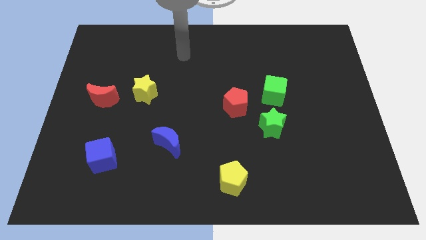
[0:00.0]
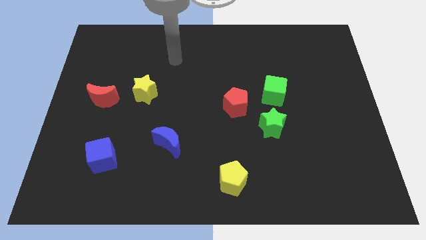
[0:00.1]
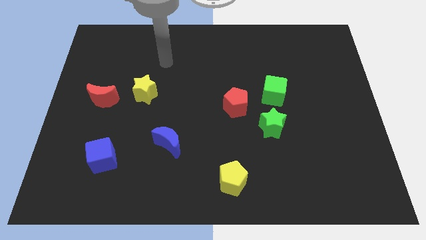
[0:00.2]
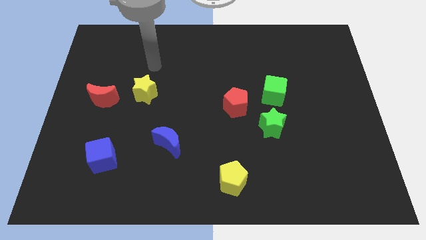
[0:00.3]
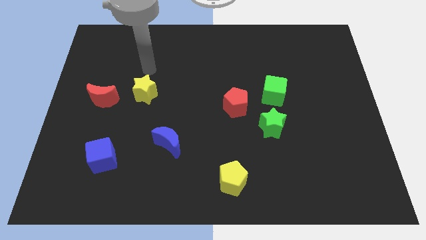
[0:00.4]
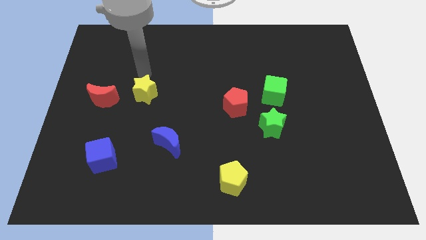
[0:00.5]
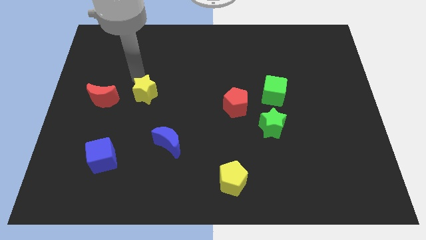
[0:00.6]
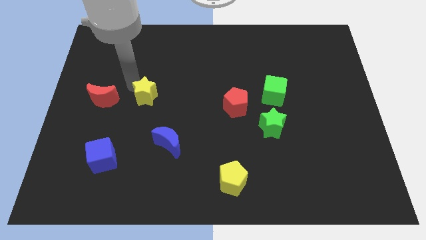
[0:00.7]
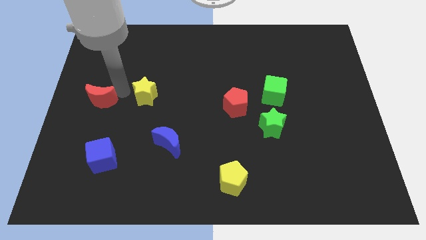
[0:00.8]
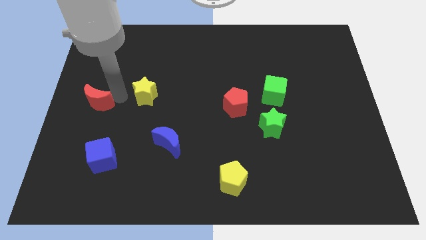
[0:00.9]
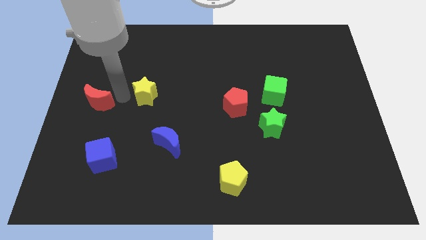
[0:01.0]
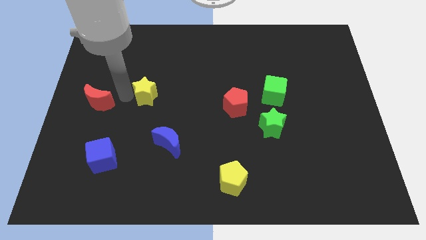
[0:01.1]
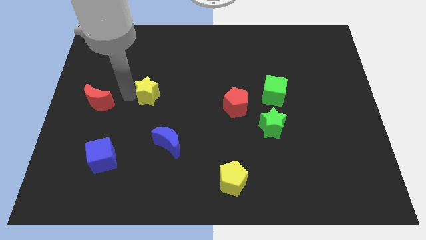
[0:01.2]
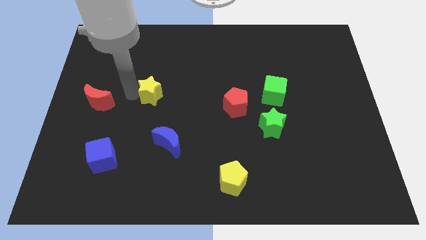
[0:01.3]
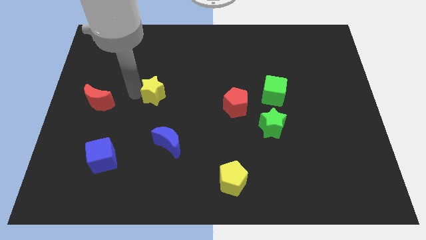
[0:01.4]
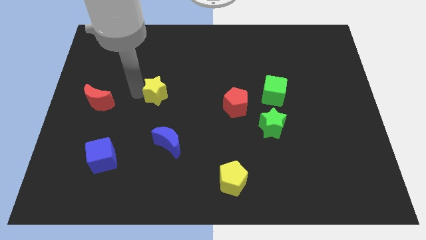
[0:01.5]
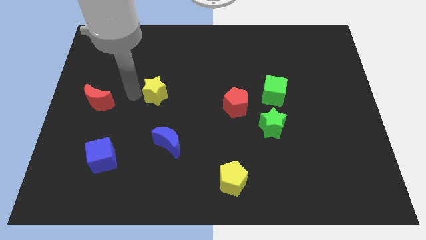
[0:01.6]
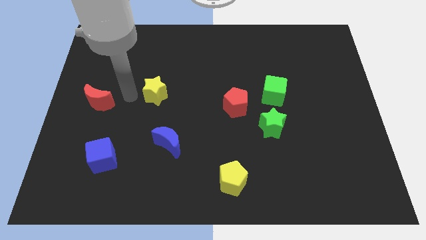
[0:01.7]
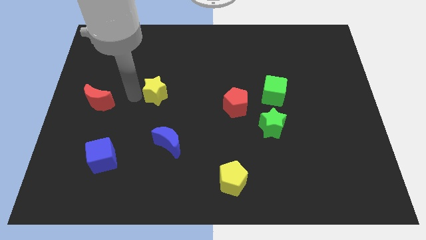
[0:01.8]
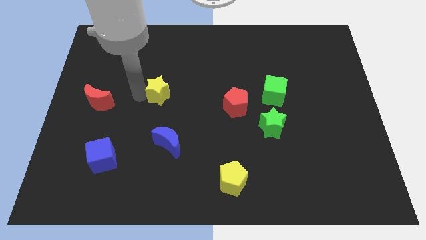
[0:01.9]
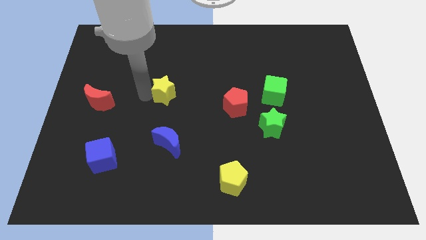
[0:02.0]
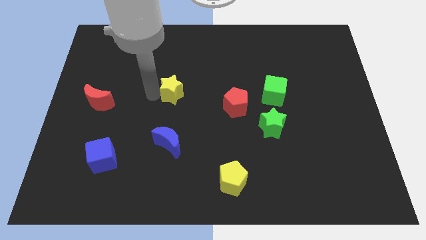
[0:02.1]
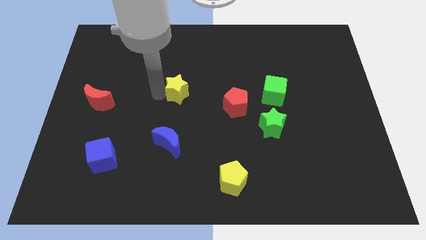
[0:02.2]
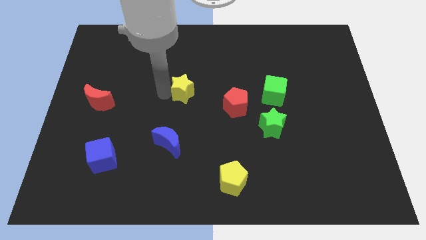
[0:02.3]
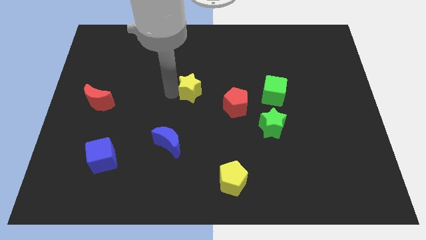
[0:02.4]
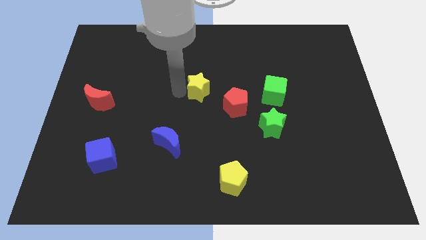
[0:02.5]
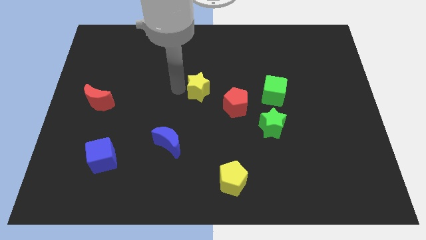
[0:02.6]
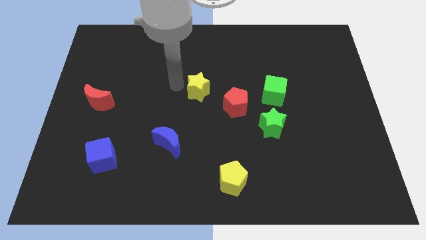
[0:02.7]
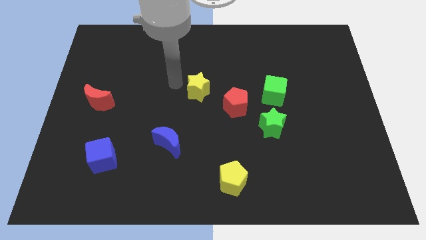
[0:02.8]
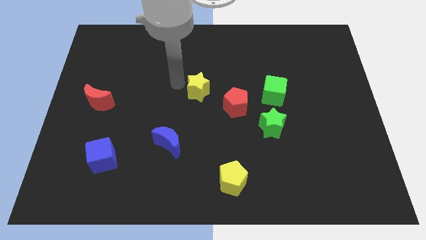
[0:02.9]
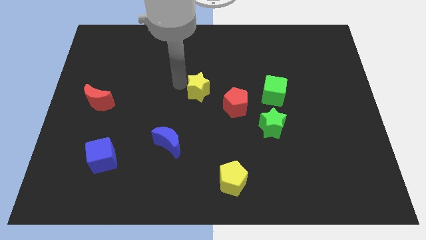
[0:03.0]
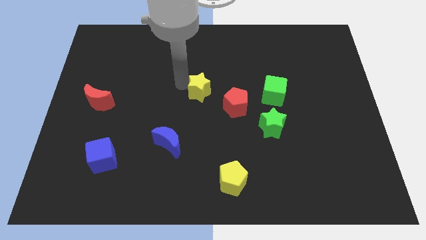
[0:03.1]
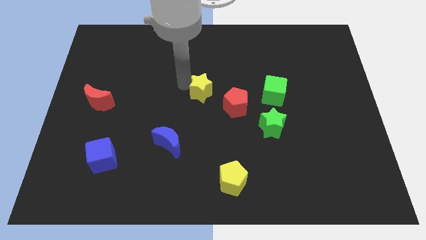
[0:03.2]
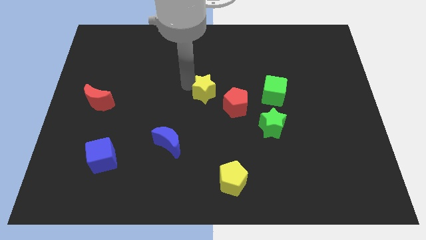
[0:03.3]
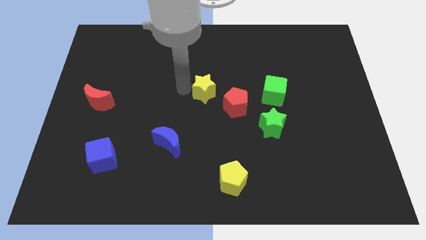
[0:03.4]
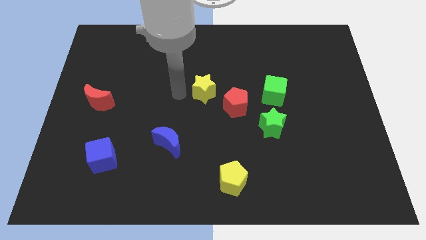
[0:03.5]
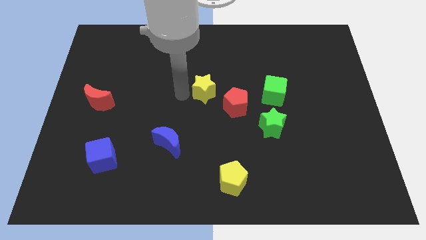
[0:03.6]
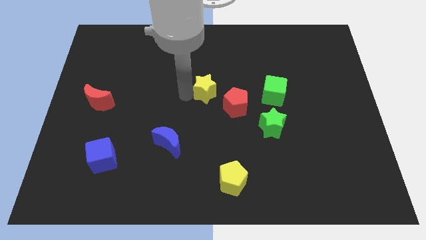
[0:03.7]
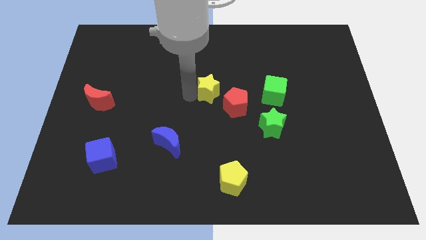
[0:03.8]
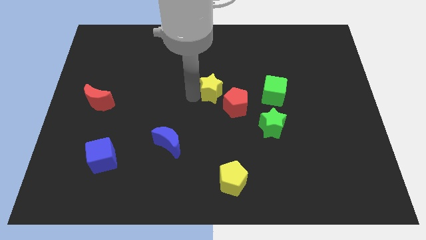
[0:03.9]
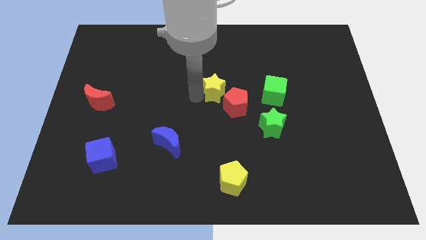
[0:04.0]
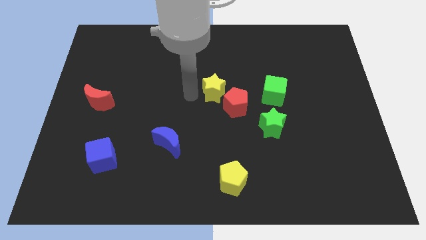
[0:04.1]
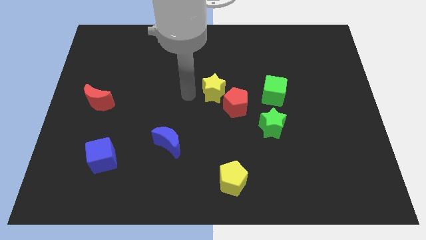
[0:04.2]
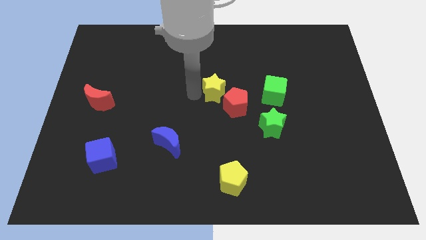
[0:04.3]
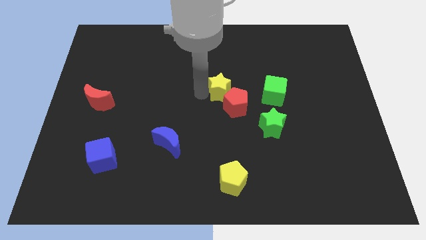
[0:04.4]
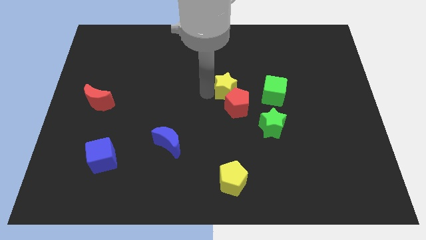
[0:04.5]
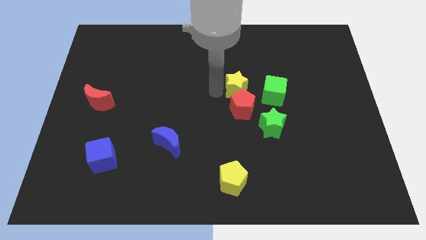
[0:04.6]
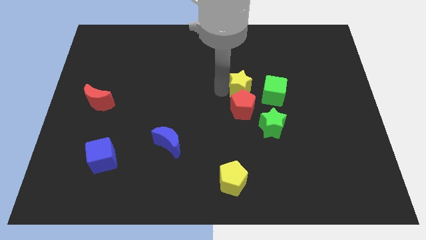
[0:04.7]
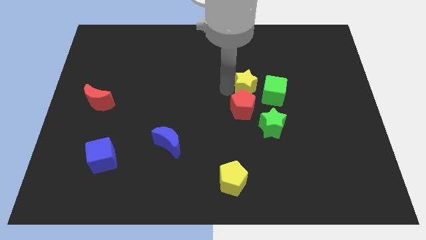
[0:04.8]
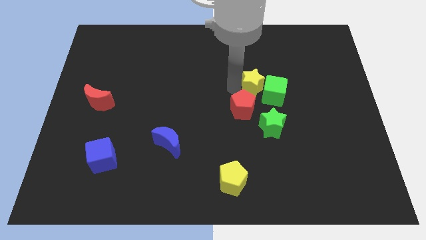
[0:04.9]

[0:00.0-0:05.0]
push the yellow star towards the green cube

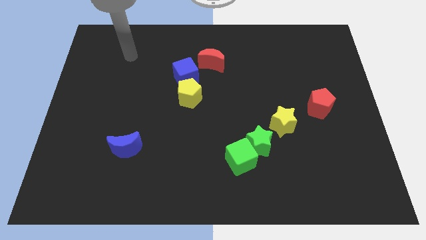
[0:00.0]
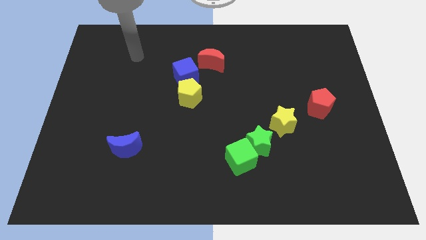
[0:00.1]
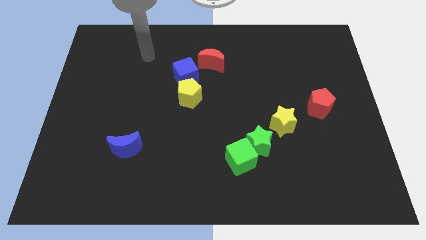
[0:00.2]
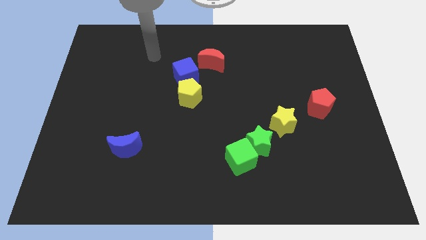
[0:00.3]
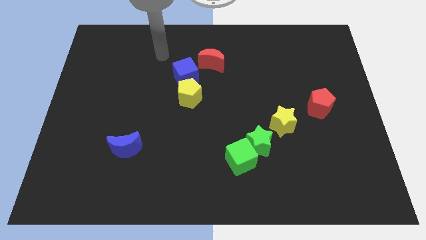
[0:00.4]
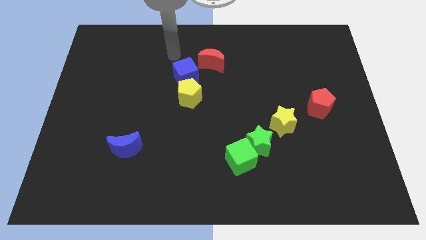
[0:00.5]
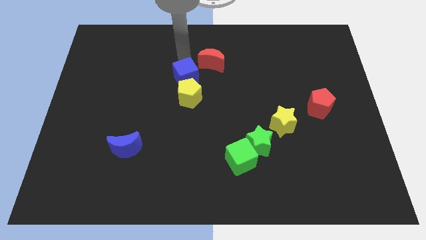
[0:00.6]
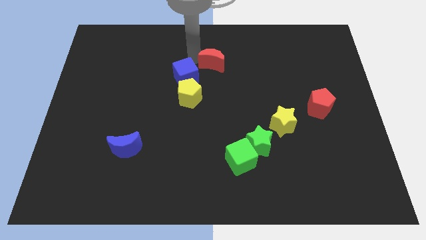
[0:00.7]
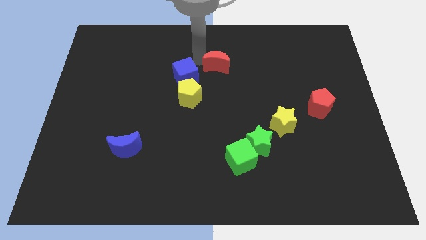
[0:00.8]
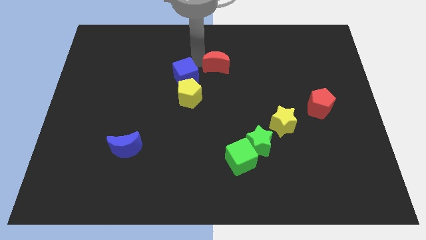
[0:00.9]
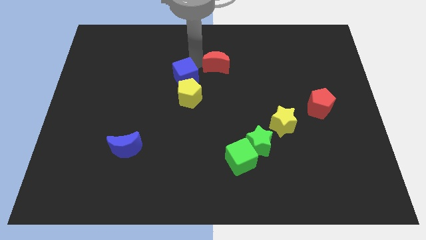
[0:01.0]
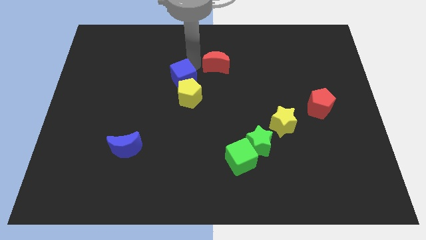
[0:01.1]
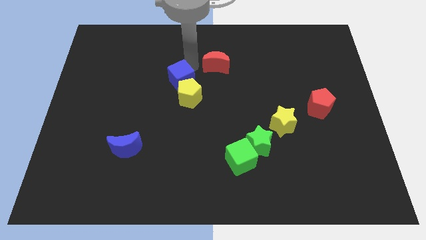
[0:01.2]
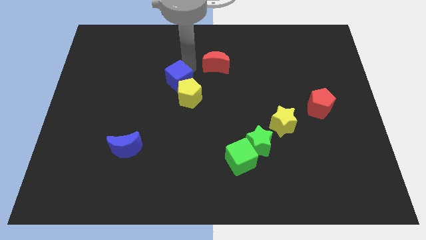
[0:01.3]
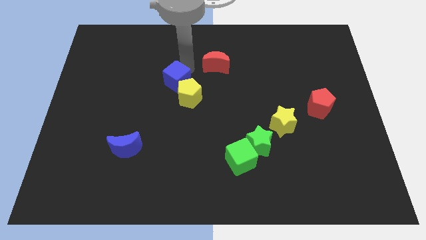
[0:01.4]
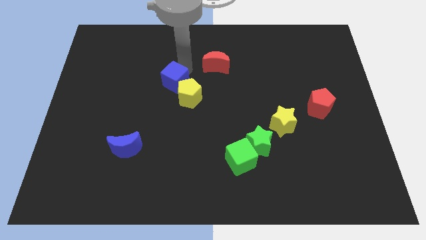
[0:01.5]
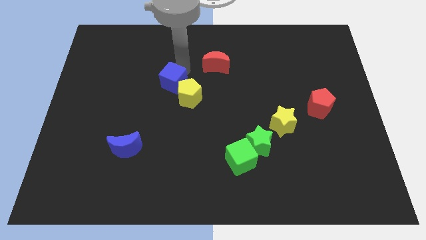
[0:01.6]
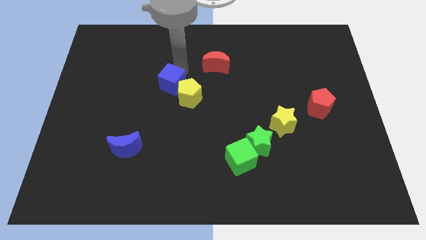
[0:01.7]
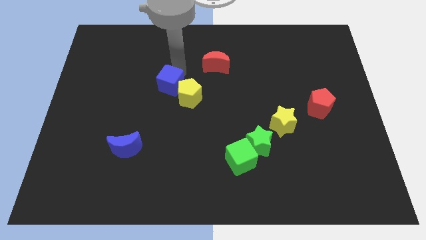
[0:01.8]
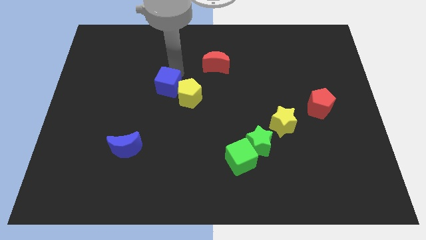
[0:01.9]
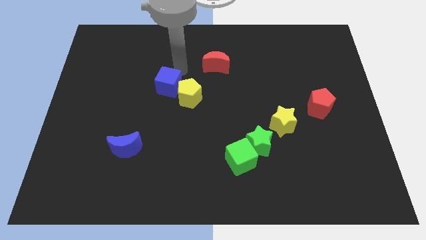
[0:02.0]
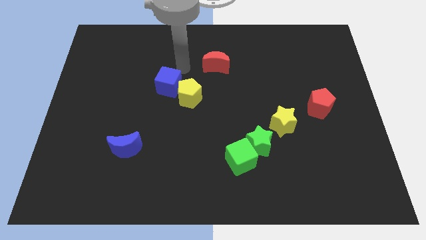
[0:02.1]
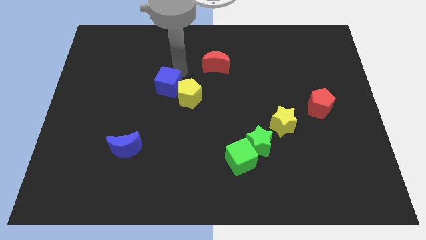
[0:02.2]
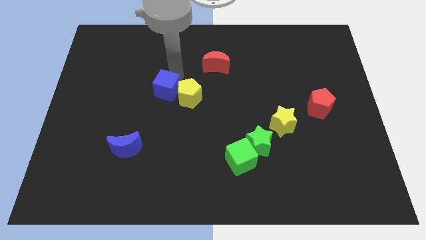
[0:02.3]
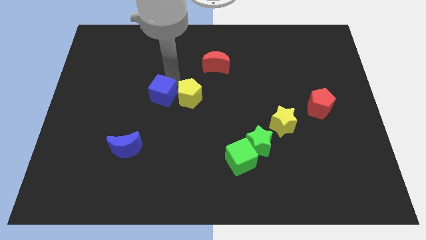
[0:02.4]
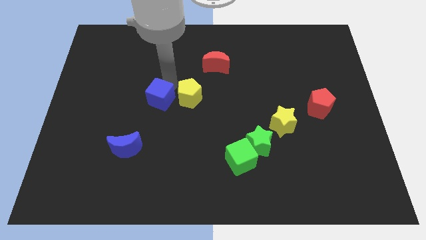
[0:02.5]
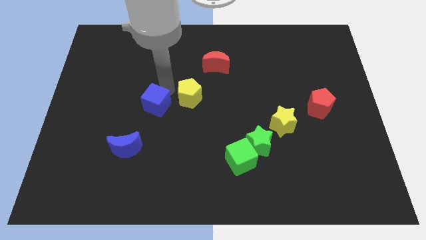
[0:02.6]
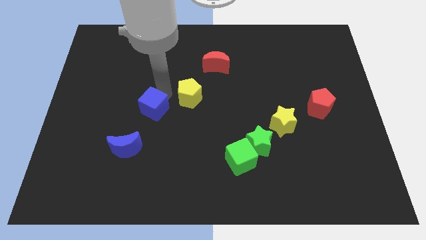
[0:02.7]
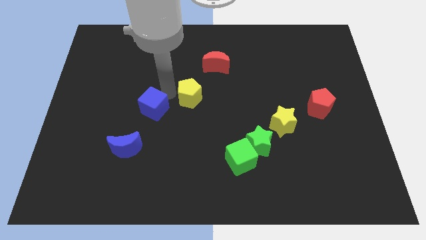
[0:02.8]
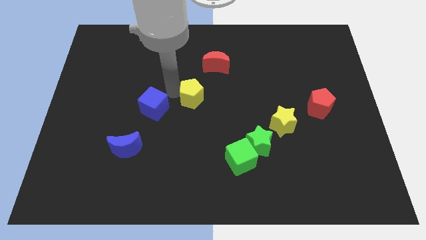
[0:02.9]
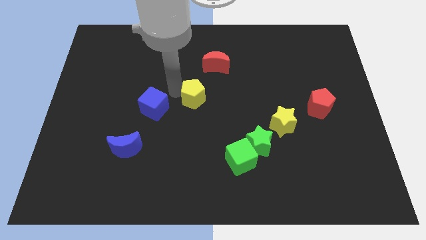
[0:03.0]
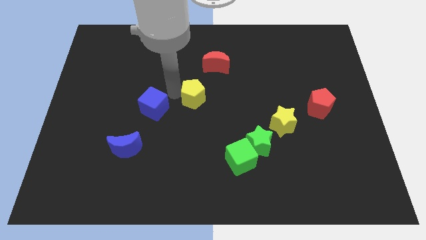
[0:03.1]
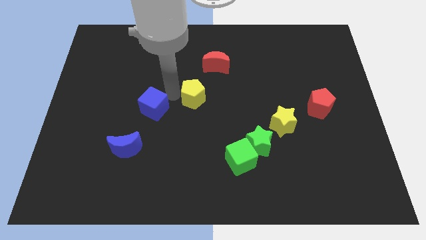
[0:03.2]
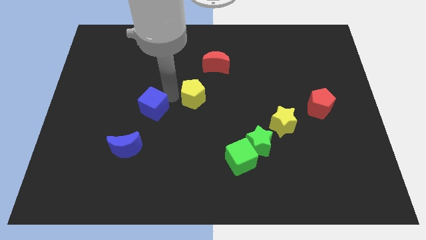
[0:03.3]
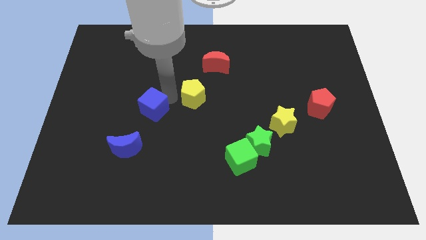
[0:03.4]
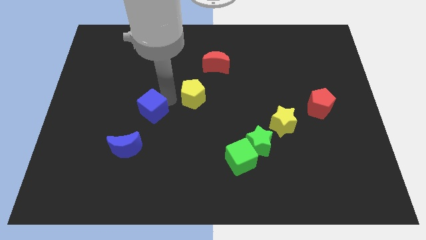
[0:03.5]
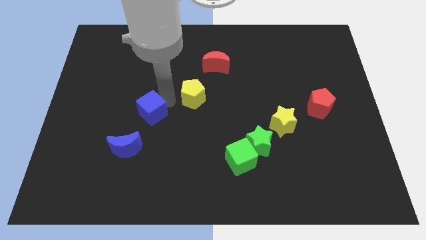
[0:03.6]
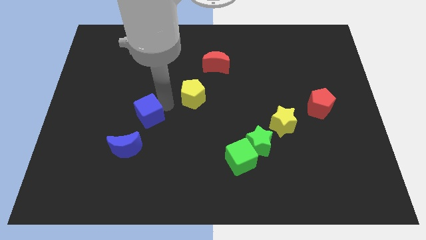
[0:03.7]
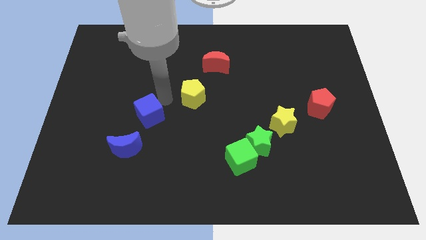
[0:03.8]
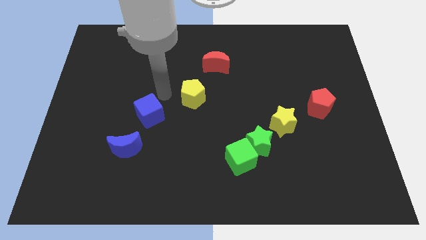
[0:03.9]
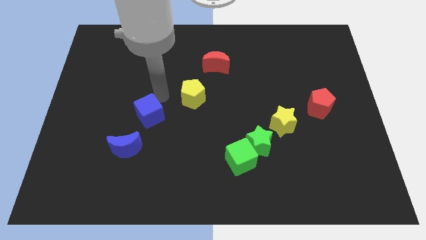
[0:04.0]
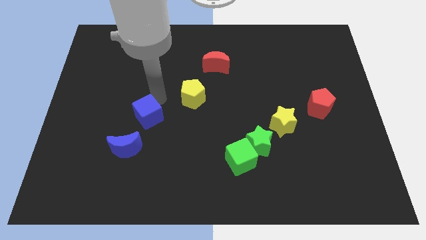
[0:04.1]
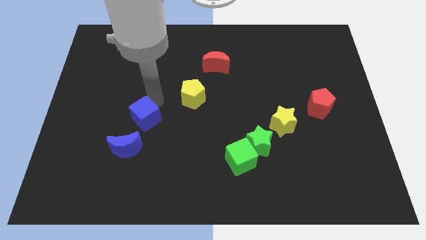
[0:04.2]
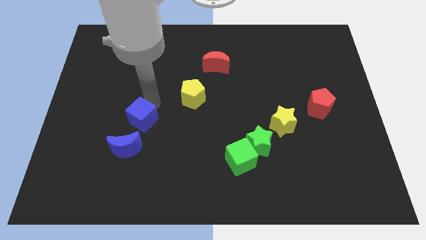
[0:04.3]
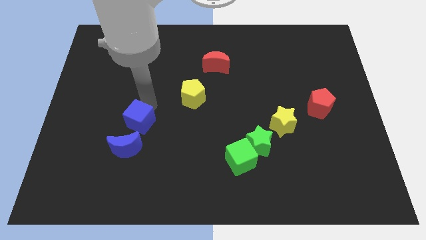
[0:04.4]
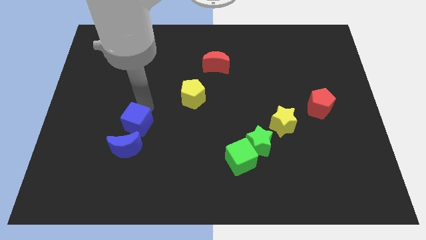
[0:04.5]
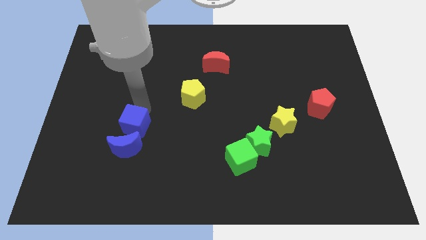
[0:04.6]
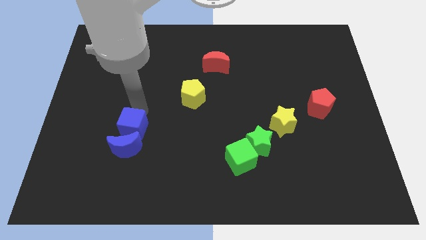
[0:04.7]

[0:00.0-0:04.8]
slide the blue cube next to the blue moon
